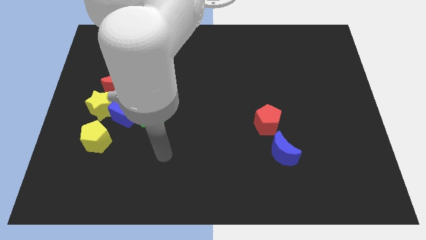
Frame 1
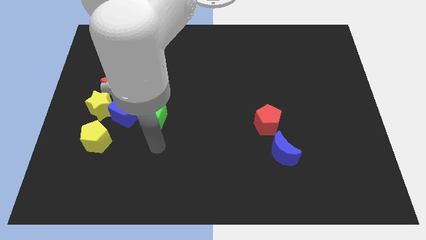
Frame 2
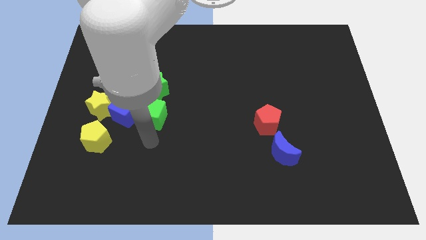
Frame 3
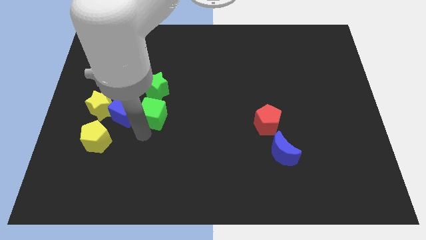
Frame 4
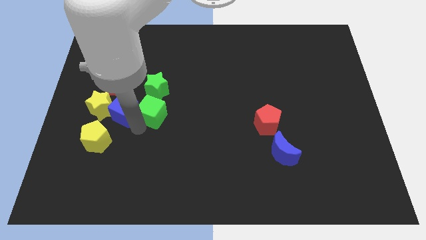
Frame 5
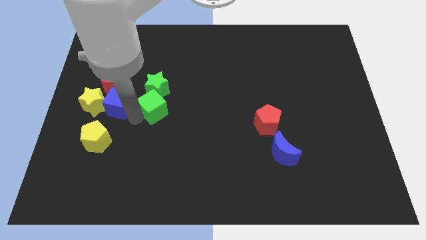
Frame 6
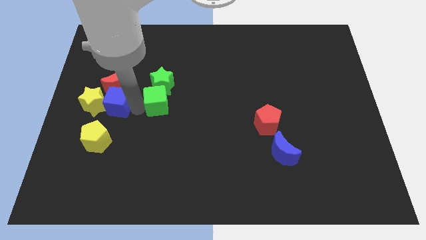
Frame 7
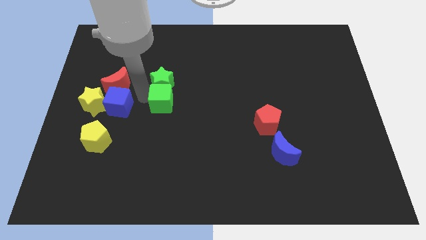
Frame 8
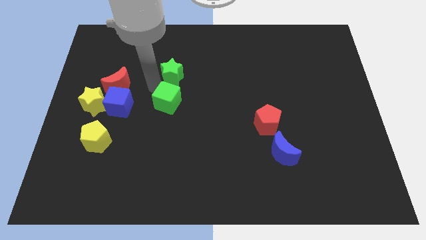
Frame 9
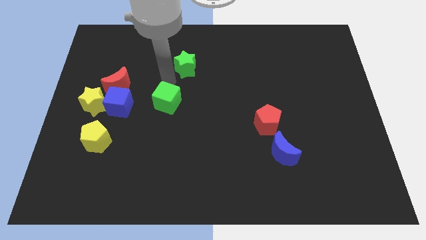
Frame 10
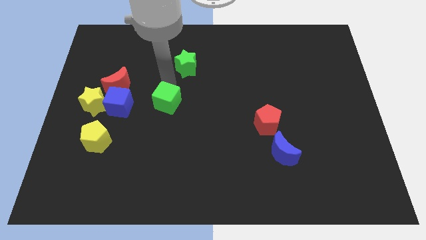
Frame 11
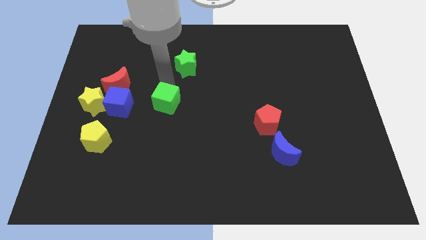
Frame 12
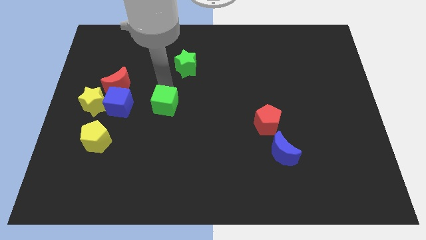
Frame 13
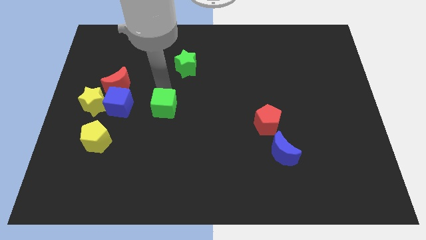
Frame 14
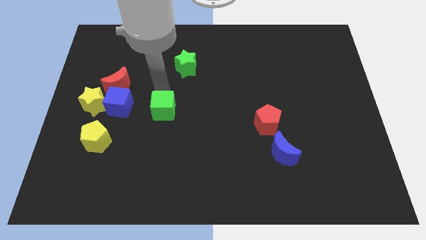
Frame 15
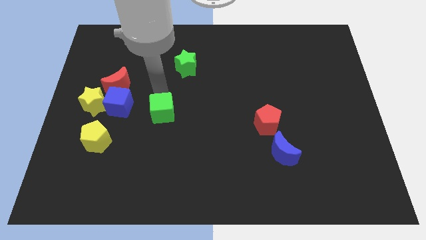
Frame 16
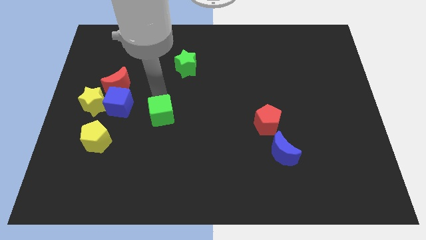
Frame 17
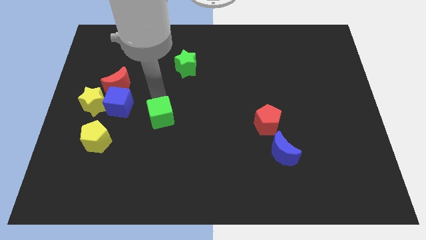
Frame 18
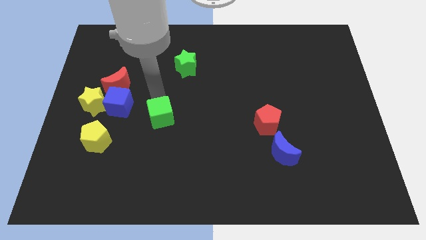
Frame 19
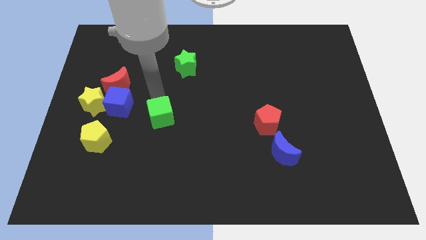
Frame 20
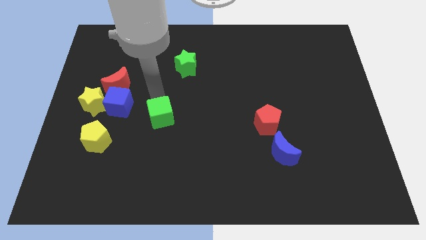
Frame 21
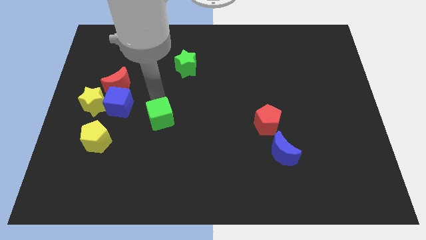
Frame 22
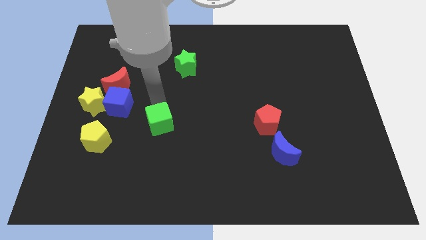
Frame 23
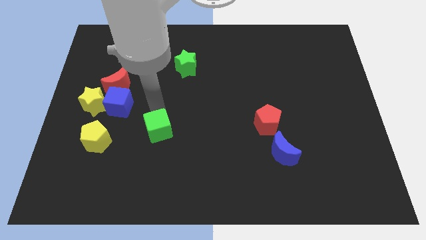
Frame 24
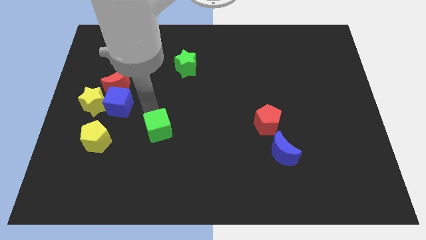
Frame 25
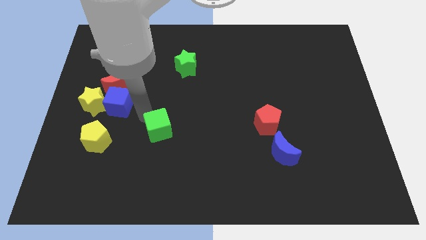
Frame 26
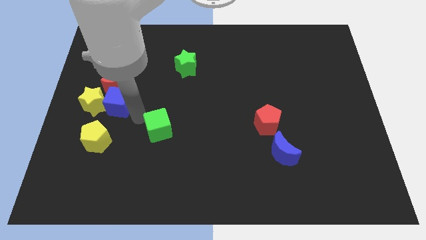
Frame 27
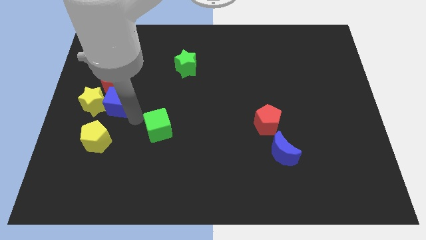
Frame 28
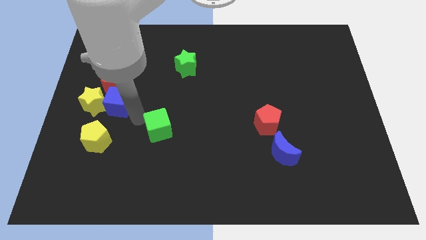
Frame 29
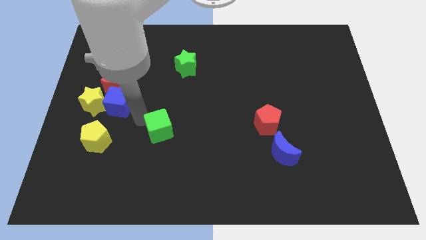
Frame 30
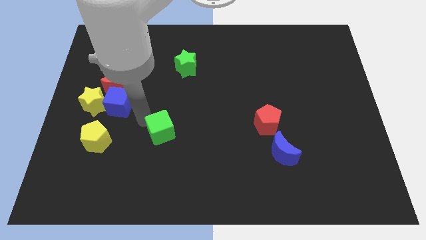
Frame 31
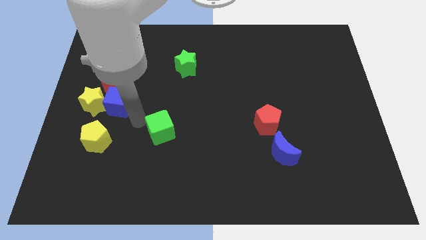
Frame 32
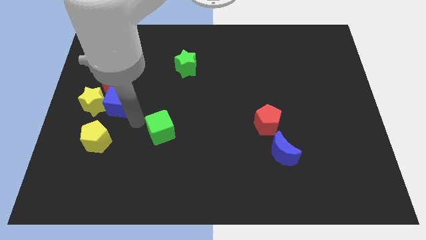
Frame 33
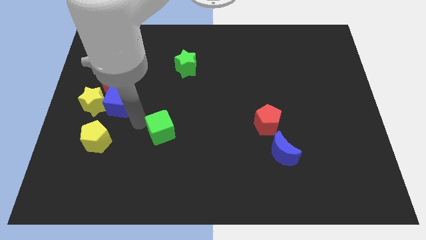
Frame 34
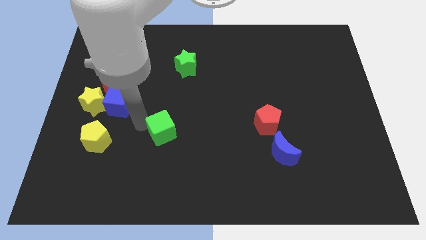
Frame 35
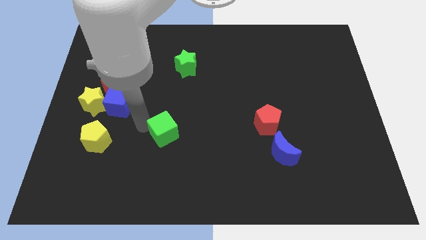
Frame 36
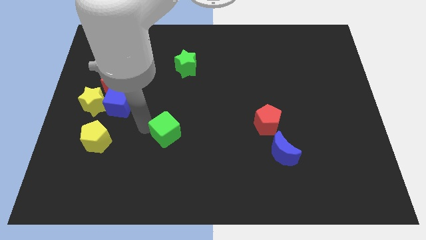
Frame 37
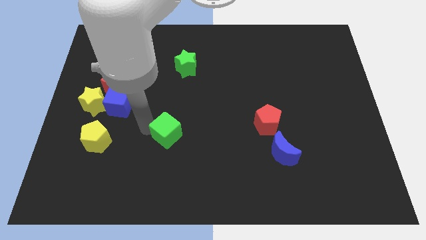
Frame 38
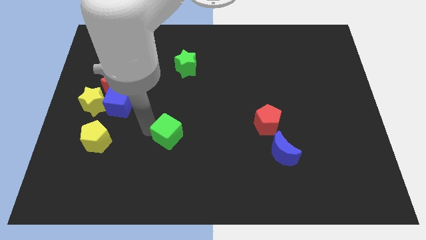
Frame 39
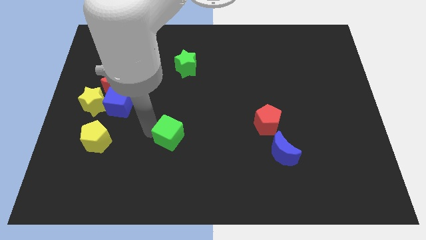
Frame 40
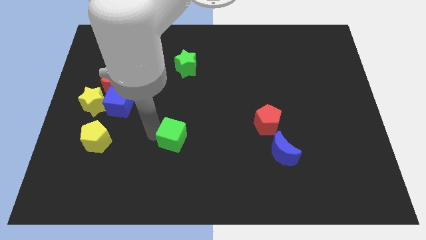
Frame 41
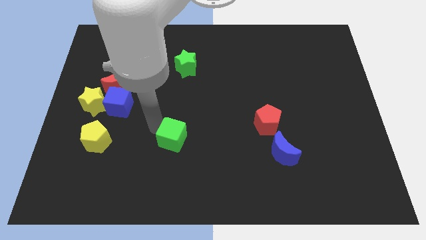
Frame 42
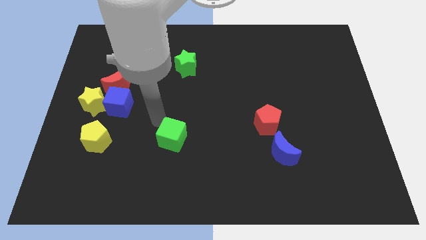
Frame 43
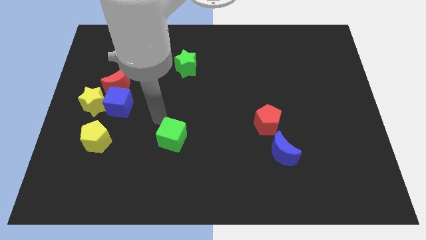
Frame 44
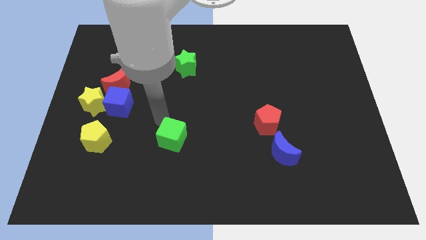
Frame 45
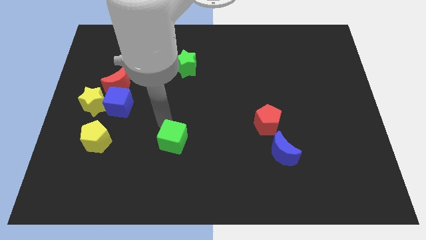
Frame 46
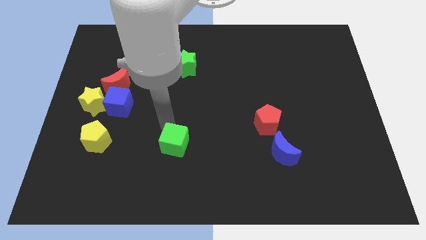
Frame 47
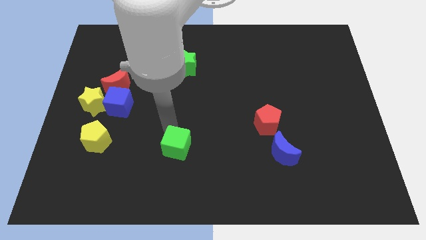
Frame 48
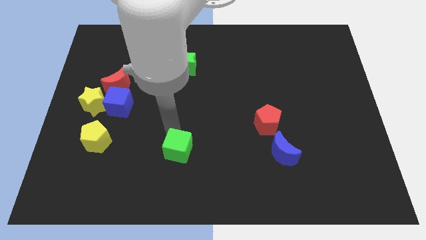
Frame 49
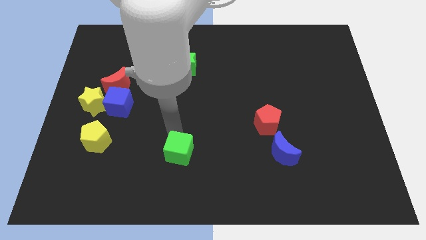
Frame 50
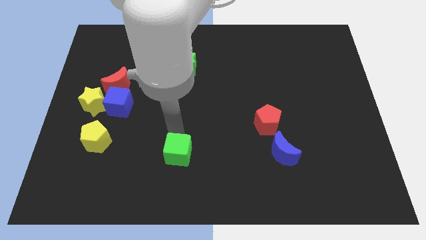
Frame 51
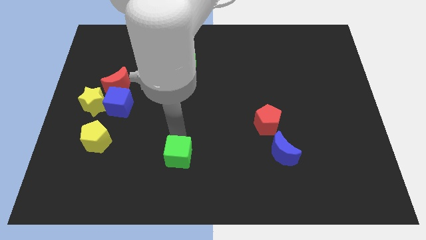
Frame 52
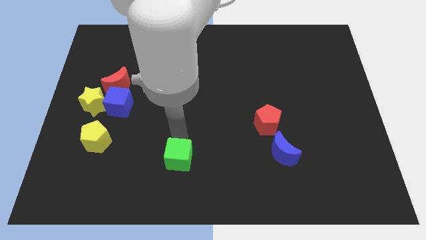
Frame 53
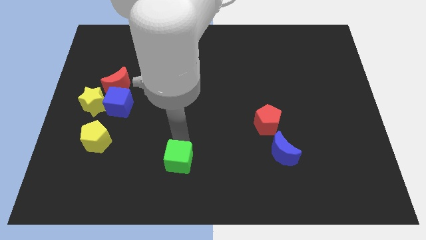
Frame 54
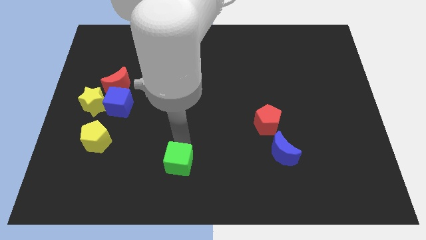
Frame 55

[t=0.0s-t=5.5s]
push the green cube to the bottom

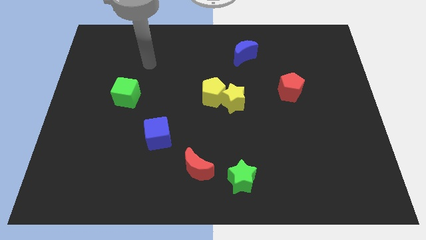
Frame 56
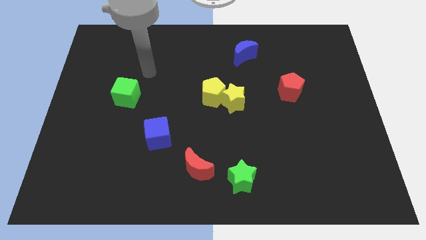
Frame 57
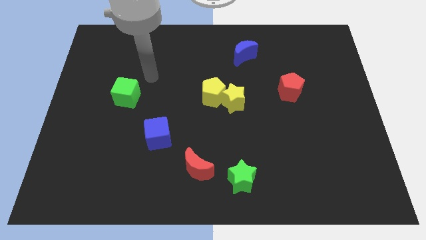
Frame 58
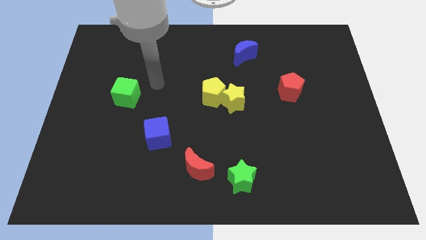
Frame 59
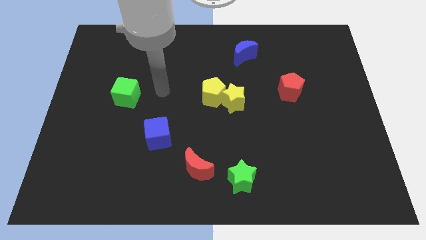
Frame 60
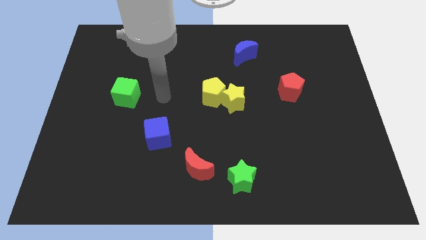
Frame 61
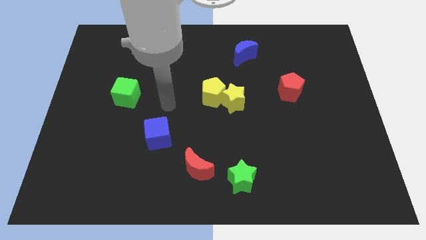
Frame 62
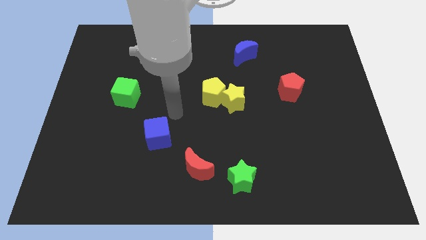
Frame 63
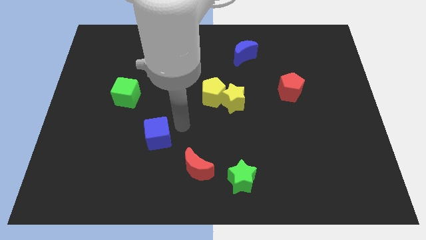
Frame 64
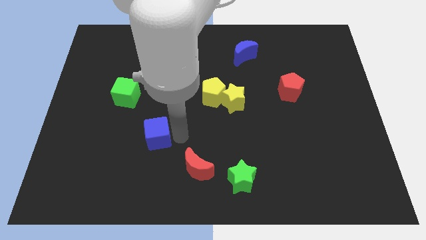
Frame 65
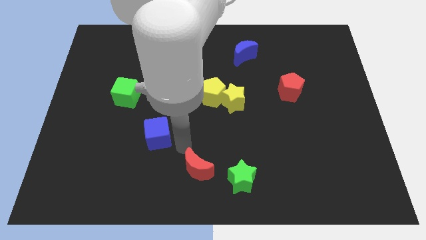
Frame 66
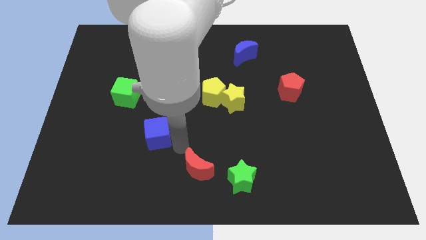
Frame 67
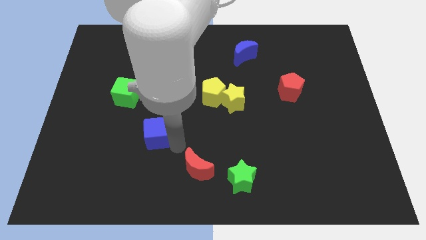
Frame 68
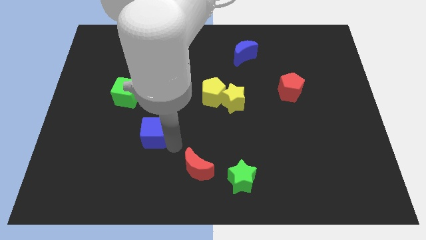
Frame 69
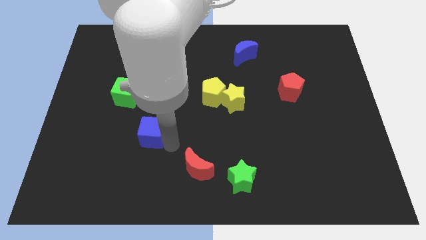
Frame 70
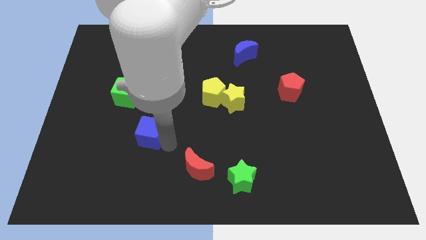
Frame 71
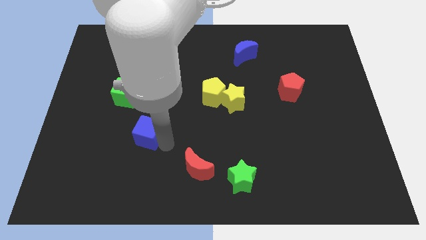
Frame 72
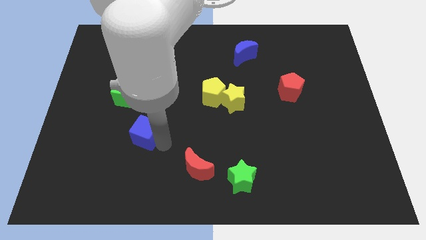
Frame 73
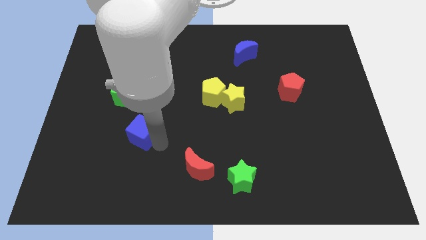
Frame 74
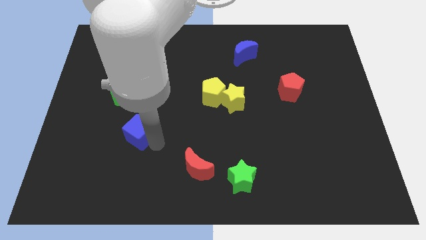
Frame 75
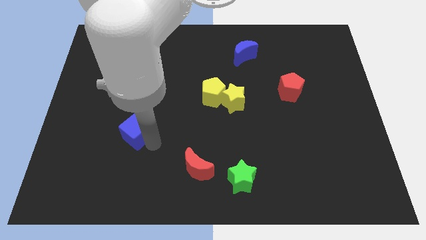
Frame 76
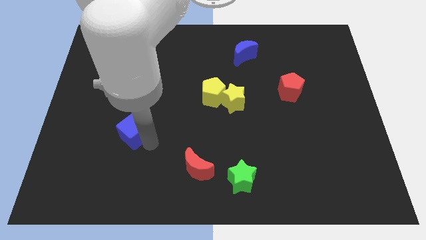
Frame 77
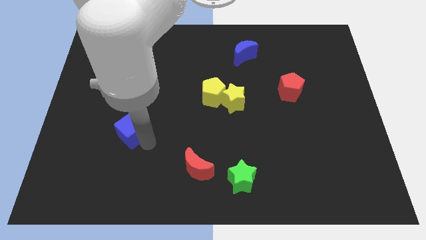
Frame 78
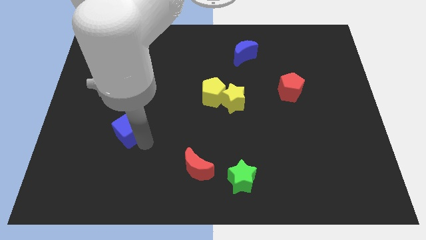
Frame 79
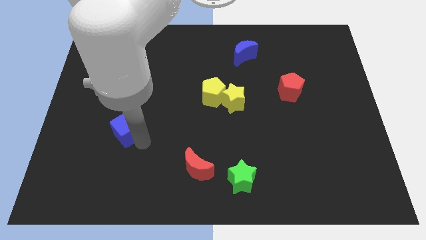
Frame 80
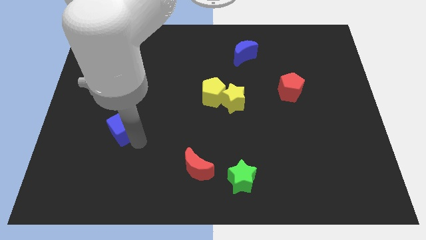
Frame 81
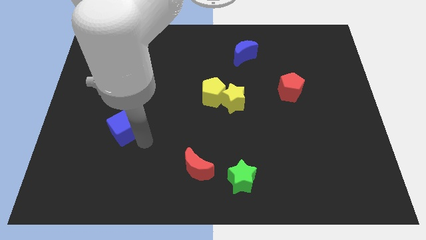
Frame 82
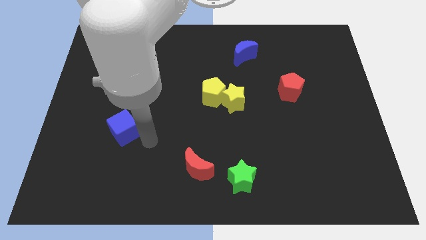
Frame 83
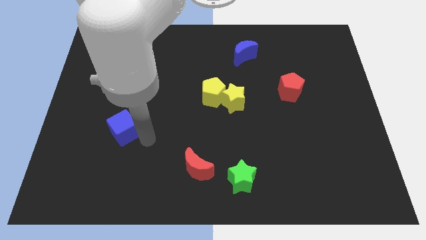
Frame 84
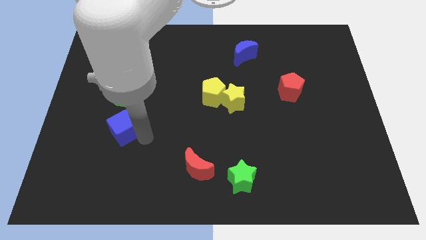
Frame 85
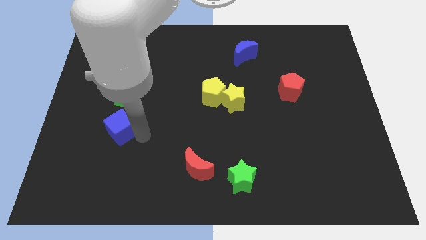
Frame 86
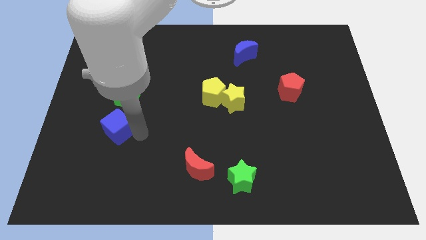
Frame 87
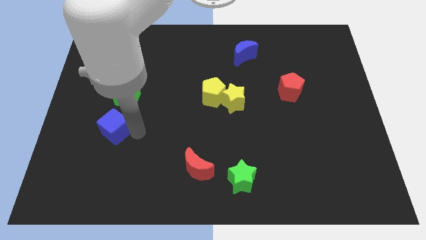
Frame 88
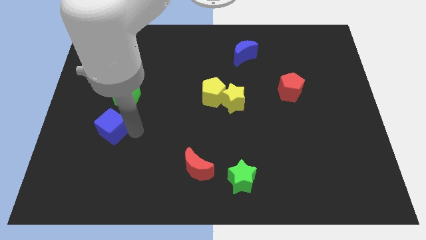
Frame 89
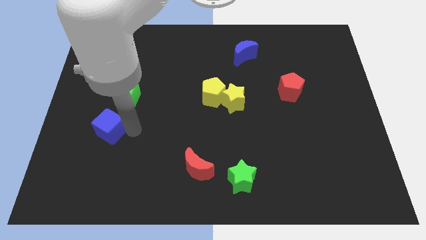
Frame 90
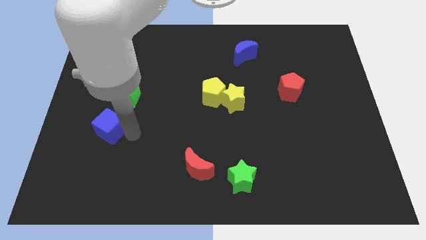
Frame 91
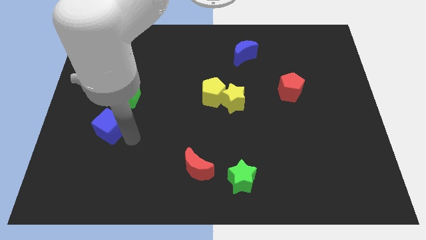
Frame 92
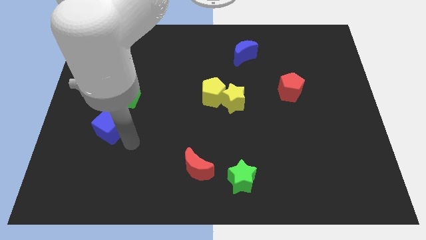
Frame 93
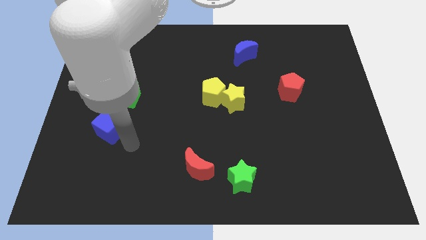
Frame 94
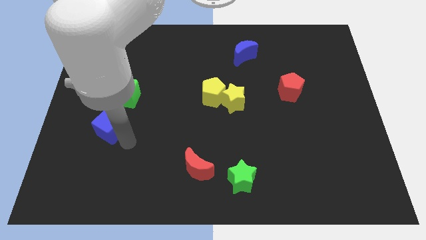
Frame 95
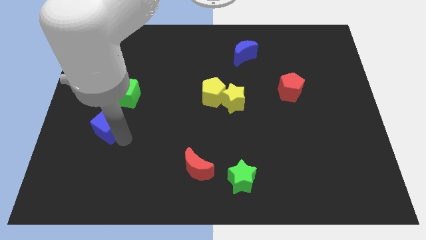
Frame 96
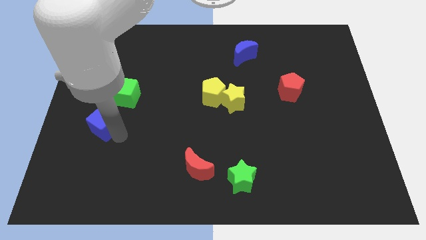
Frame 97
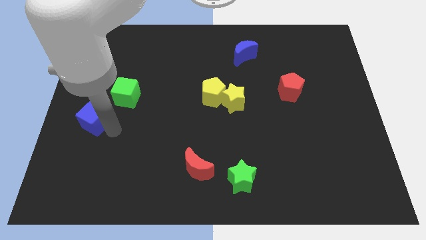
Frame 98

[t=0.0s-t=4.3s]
put the blue cube to the left side of the board
